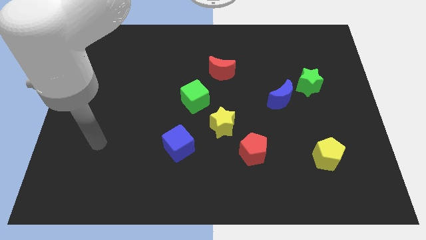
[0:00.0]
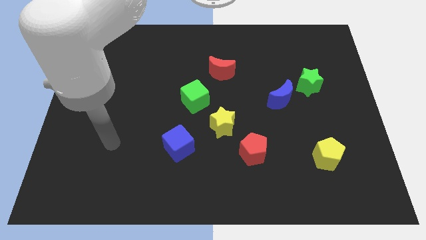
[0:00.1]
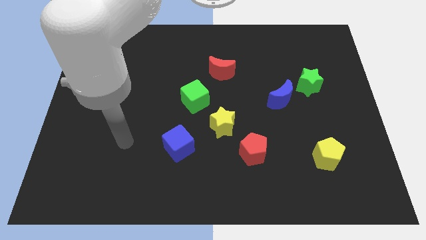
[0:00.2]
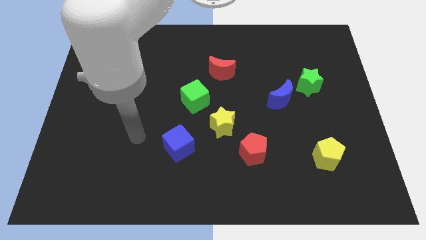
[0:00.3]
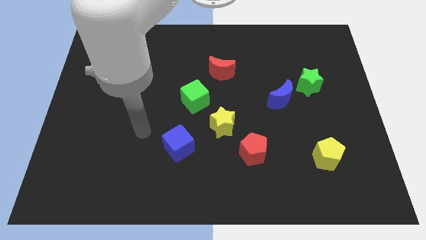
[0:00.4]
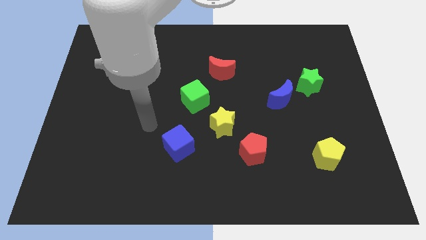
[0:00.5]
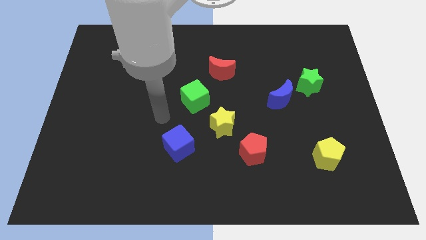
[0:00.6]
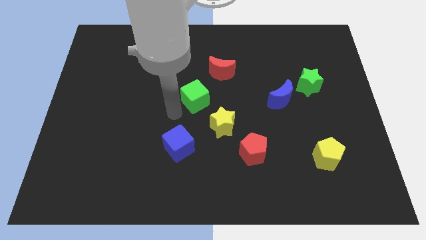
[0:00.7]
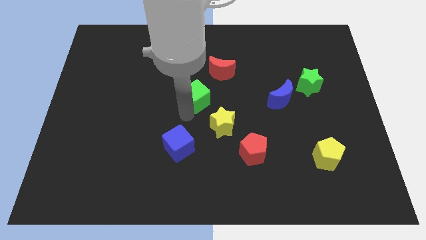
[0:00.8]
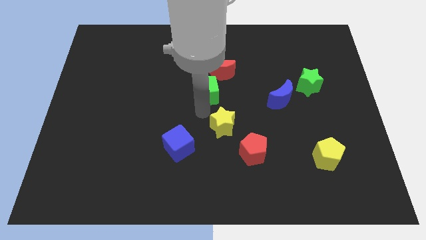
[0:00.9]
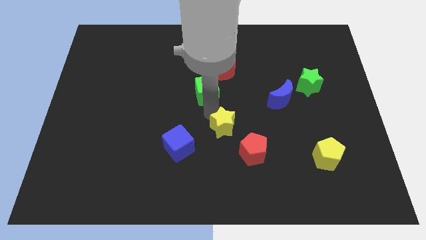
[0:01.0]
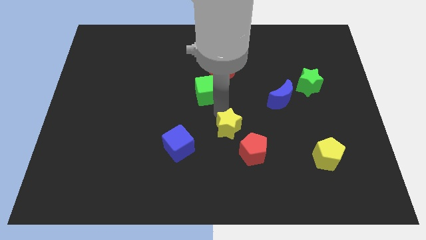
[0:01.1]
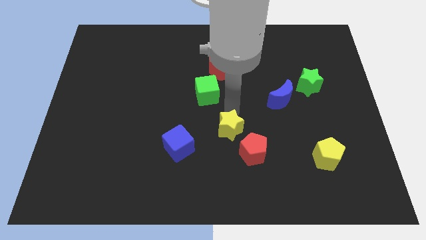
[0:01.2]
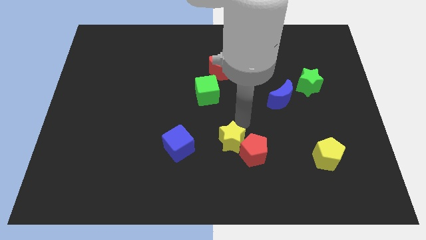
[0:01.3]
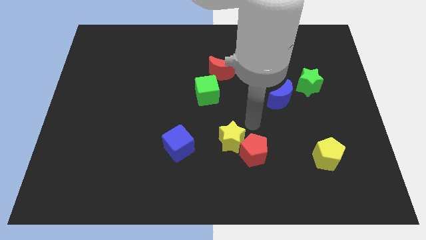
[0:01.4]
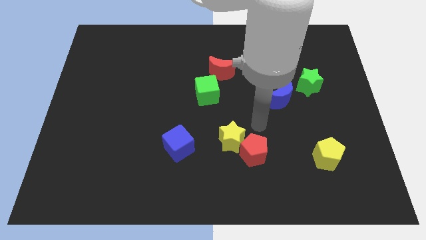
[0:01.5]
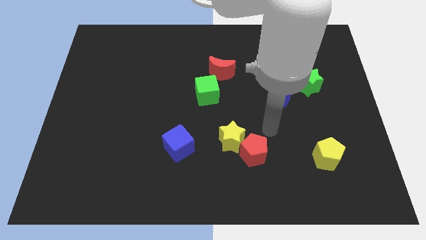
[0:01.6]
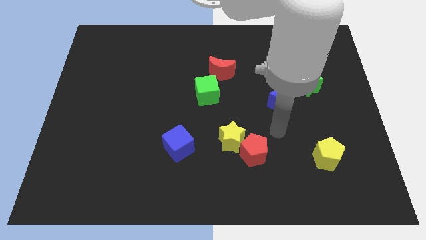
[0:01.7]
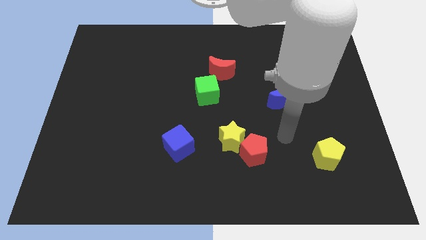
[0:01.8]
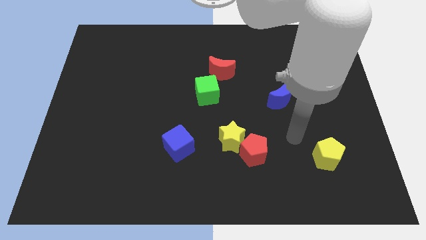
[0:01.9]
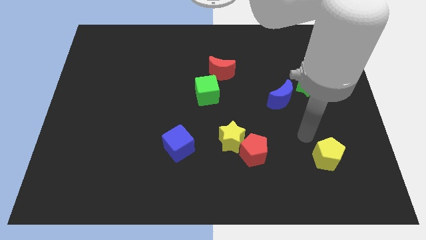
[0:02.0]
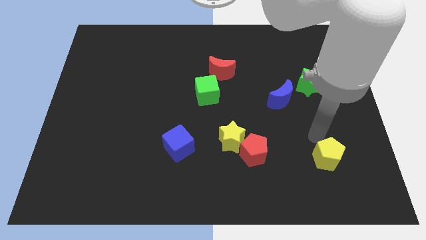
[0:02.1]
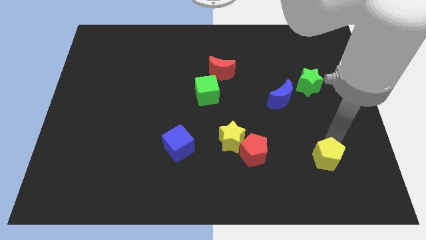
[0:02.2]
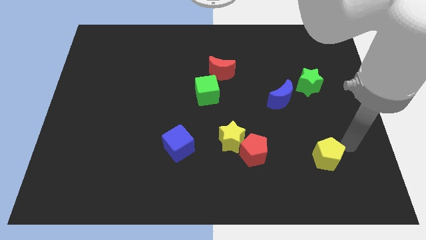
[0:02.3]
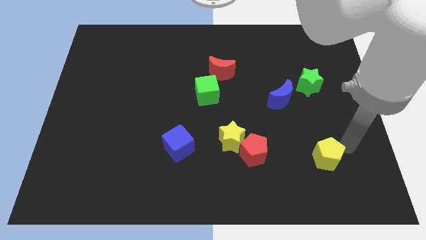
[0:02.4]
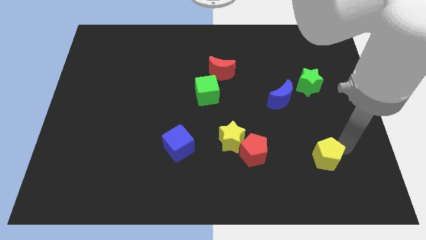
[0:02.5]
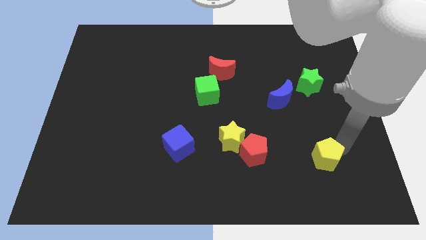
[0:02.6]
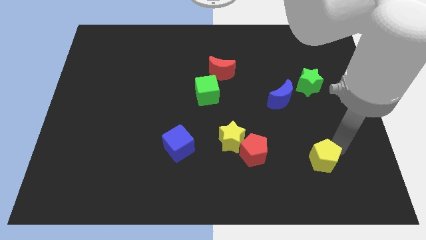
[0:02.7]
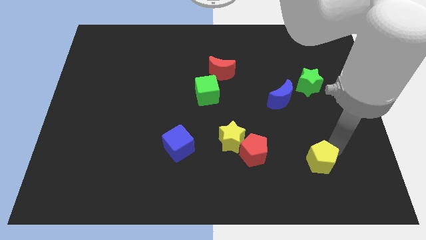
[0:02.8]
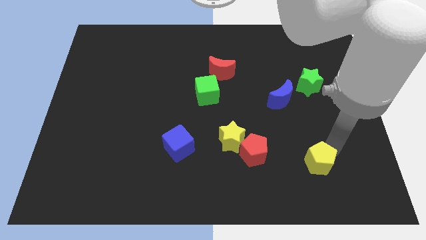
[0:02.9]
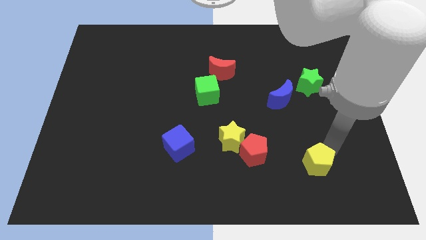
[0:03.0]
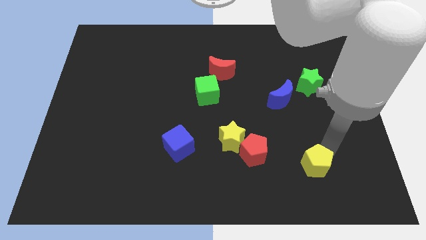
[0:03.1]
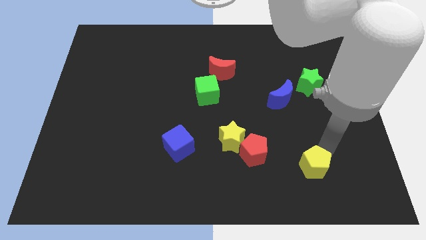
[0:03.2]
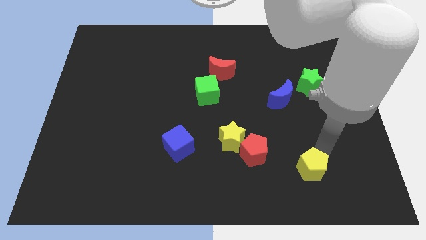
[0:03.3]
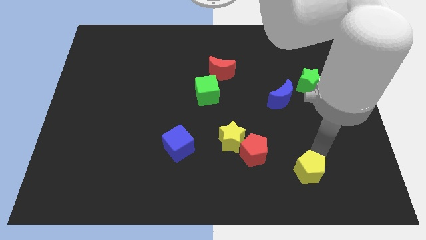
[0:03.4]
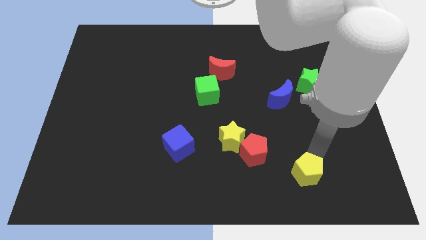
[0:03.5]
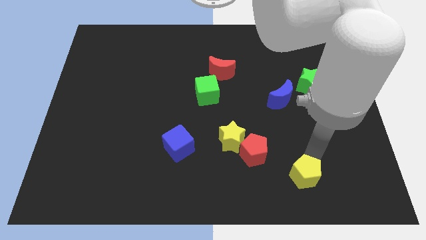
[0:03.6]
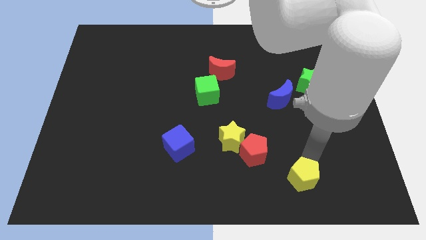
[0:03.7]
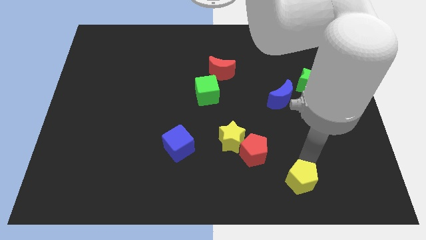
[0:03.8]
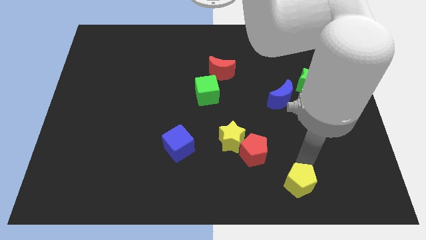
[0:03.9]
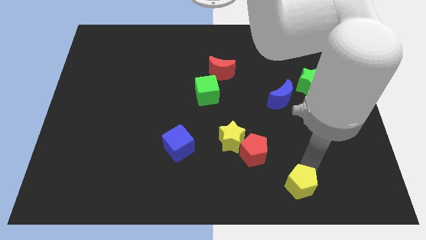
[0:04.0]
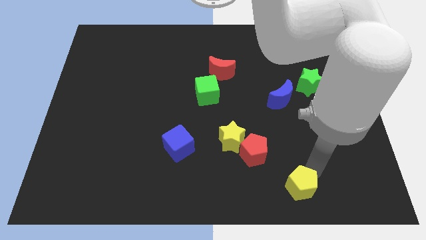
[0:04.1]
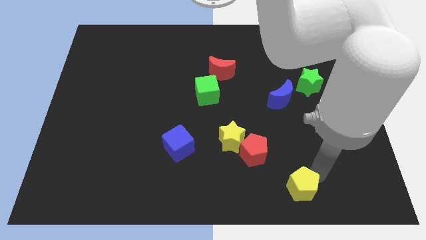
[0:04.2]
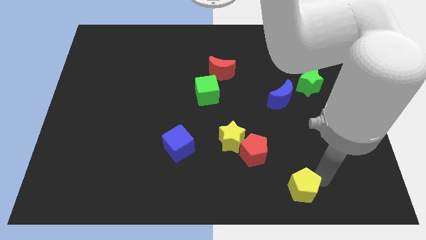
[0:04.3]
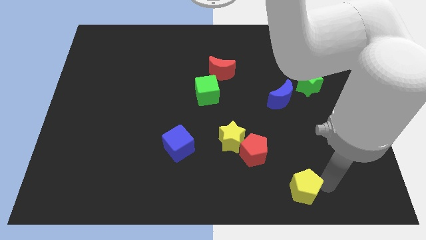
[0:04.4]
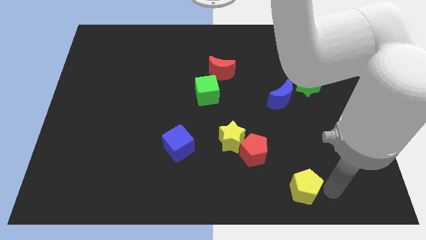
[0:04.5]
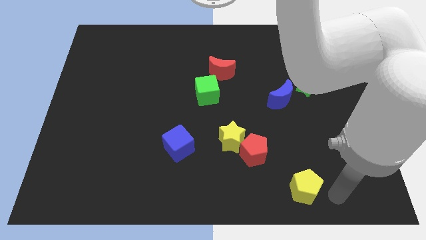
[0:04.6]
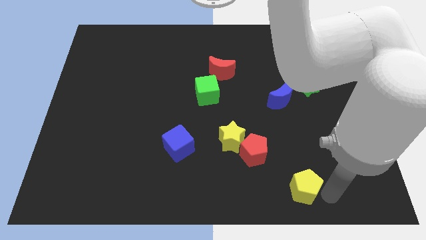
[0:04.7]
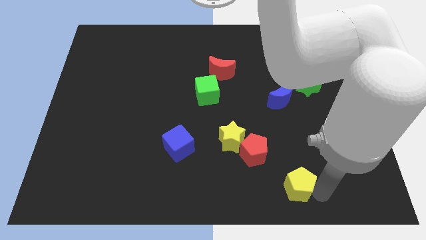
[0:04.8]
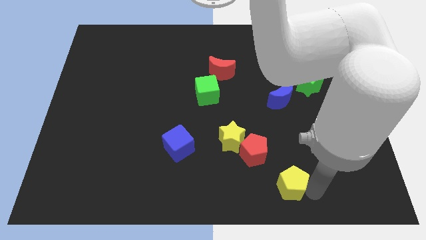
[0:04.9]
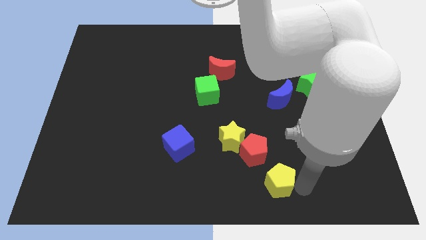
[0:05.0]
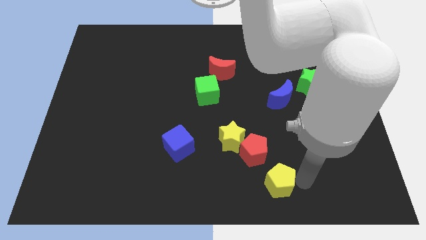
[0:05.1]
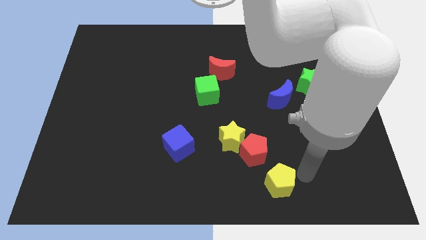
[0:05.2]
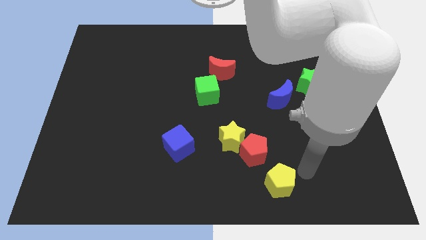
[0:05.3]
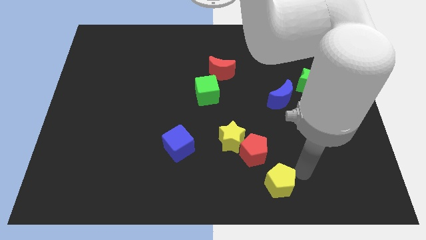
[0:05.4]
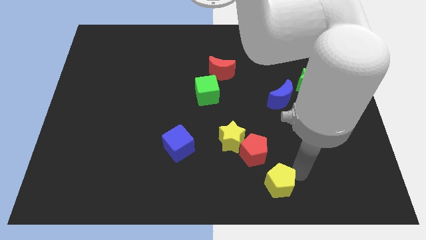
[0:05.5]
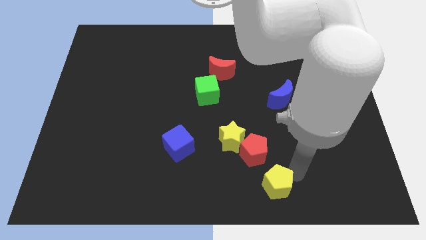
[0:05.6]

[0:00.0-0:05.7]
slide the yellow pentagon to the bottom

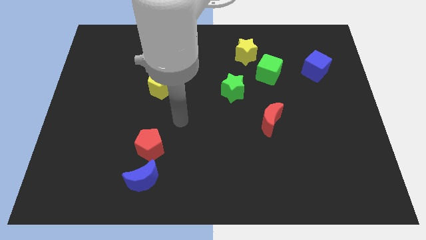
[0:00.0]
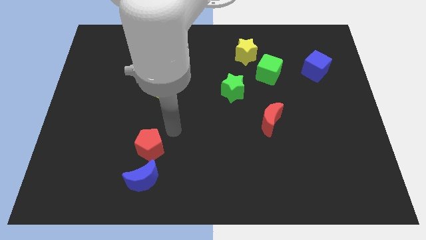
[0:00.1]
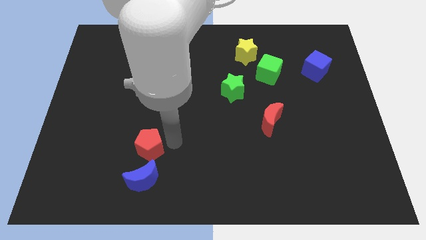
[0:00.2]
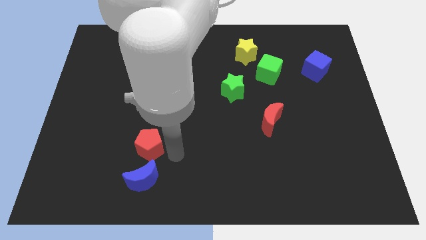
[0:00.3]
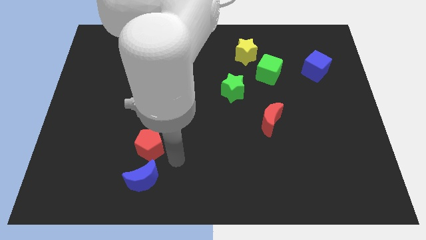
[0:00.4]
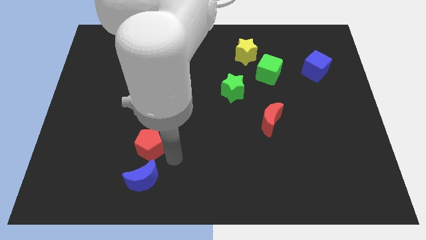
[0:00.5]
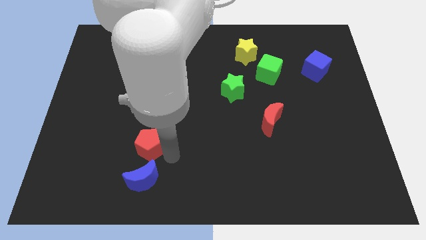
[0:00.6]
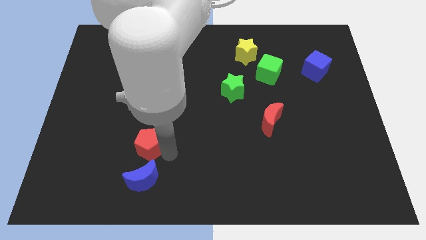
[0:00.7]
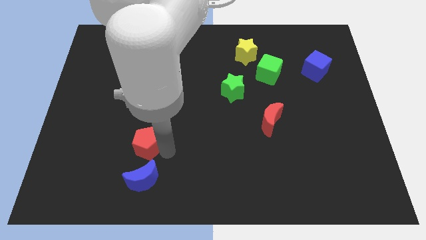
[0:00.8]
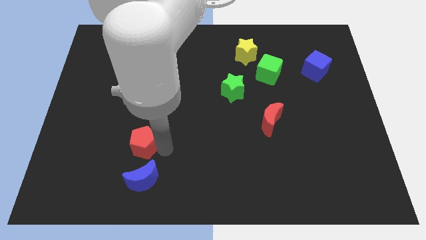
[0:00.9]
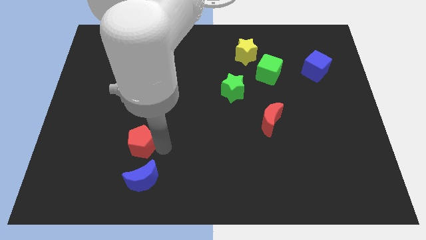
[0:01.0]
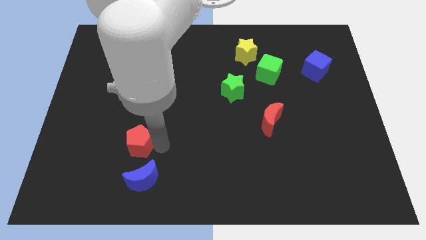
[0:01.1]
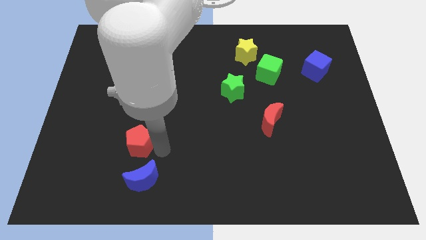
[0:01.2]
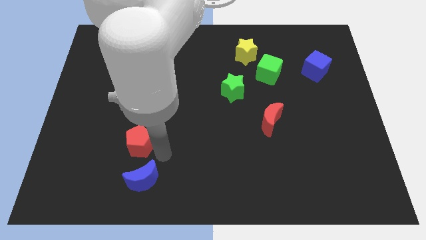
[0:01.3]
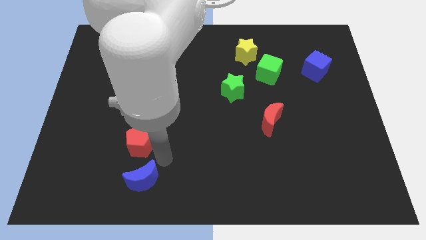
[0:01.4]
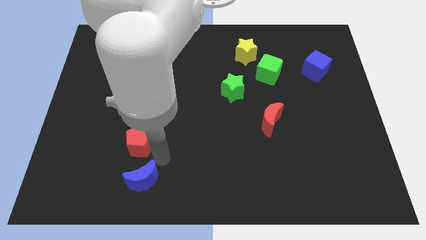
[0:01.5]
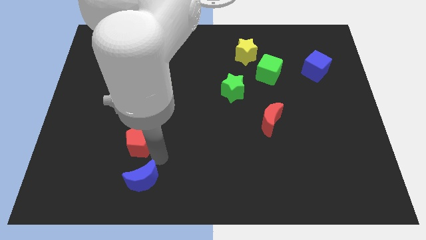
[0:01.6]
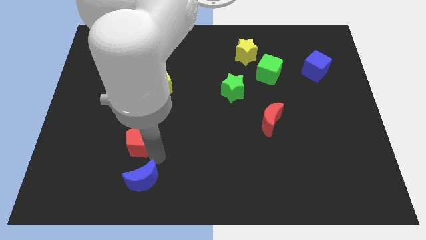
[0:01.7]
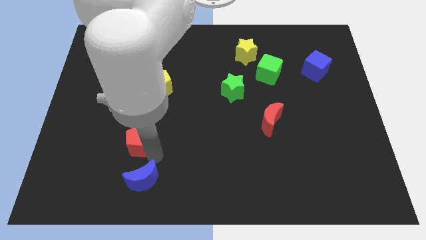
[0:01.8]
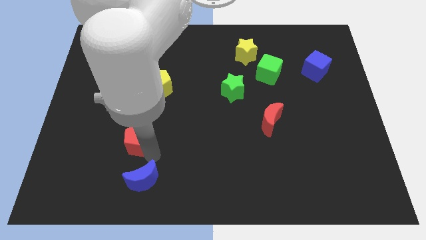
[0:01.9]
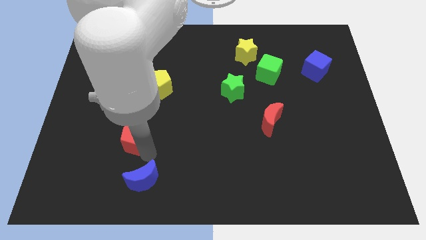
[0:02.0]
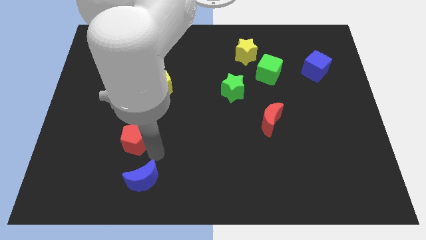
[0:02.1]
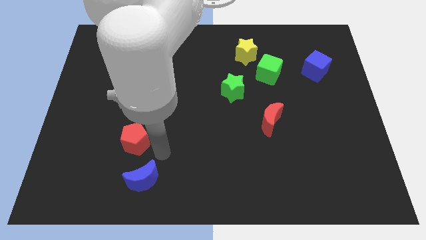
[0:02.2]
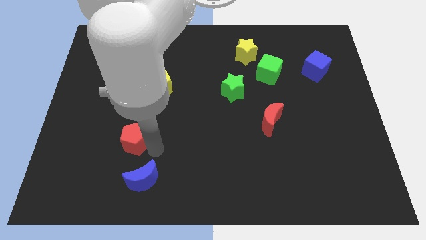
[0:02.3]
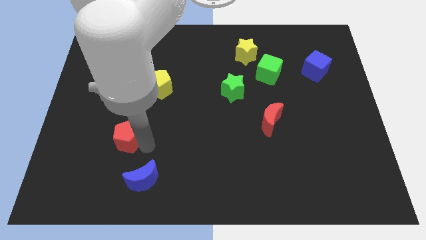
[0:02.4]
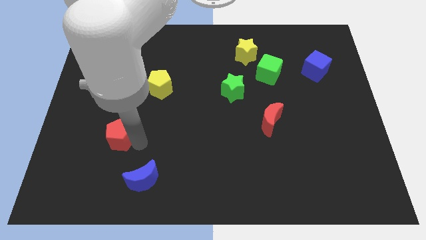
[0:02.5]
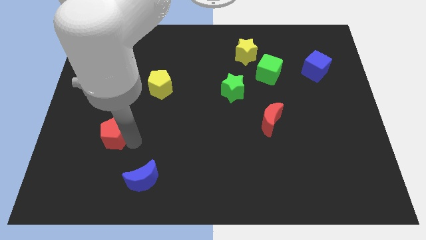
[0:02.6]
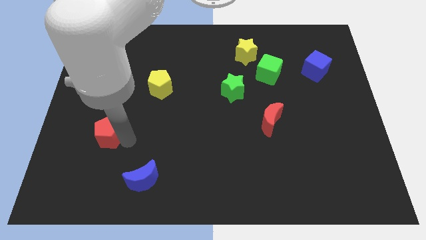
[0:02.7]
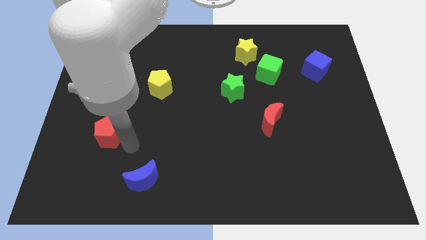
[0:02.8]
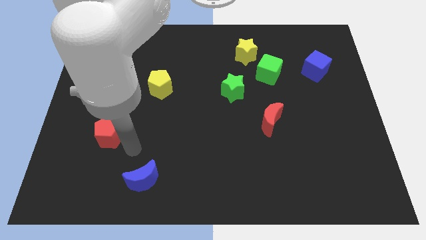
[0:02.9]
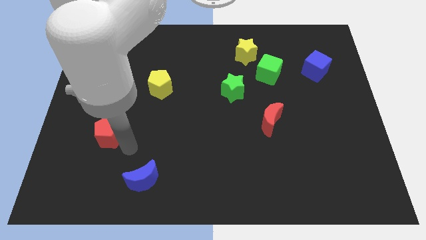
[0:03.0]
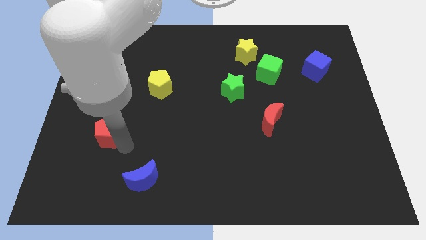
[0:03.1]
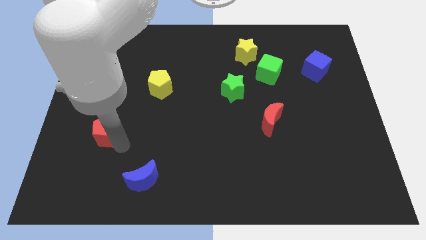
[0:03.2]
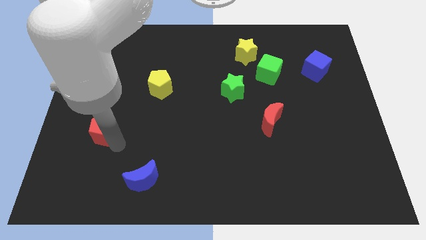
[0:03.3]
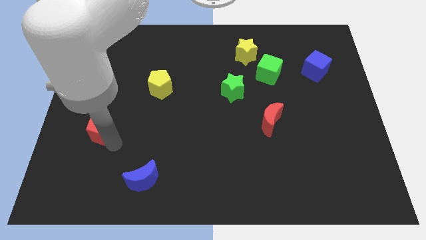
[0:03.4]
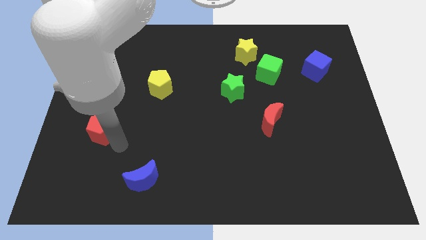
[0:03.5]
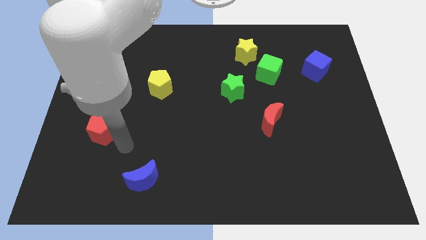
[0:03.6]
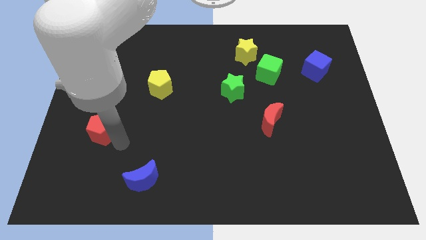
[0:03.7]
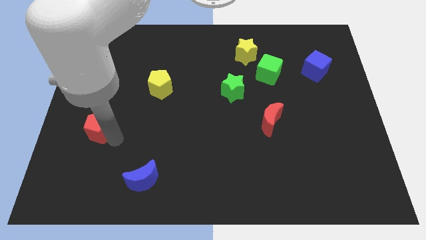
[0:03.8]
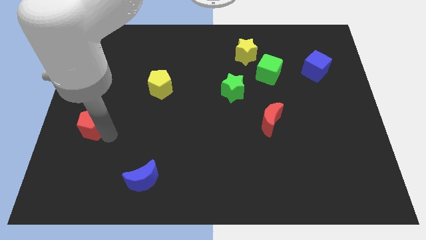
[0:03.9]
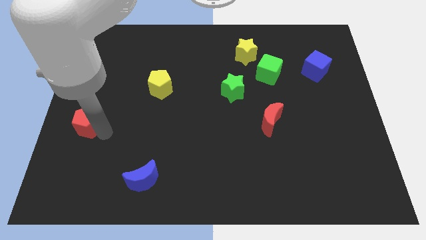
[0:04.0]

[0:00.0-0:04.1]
push the red pentagon to the left side of the board
